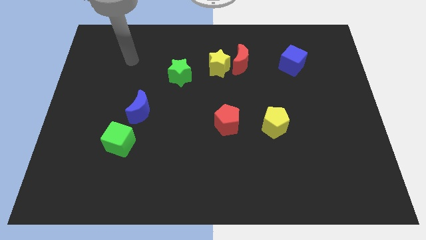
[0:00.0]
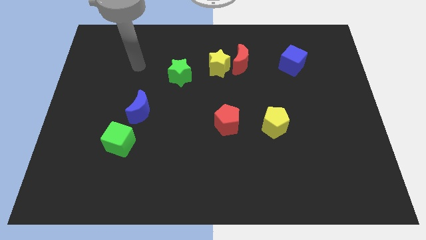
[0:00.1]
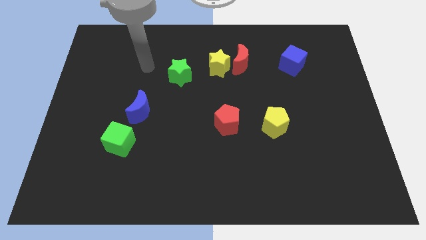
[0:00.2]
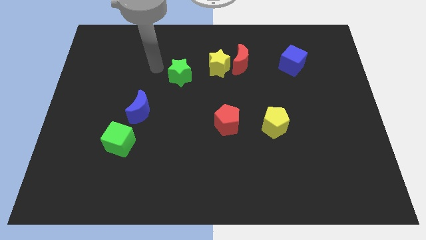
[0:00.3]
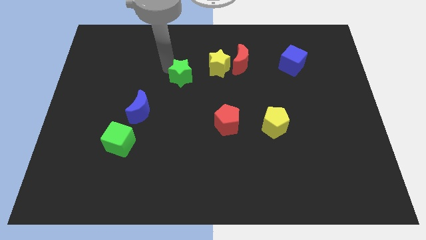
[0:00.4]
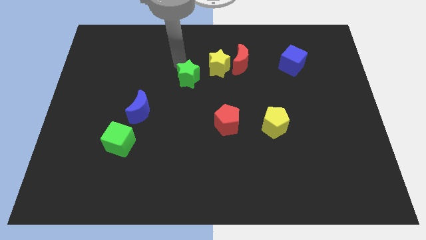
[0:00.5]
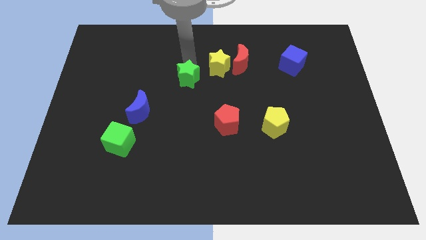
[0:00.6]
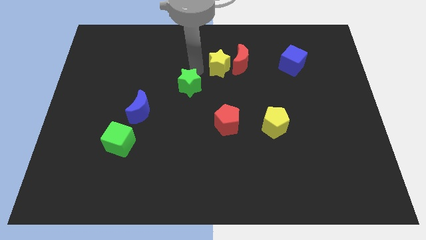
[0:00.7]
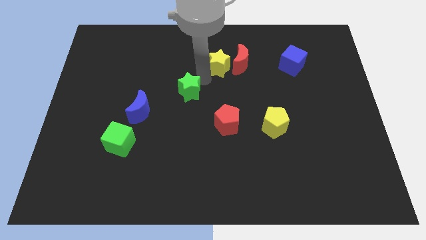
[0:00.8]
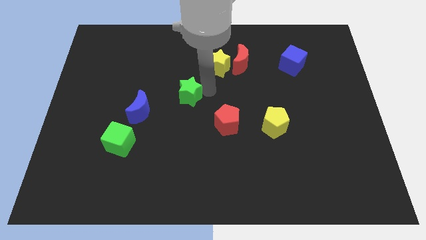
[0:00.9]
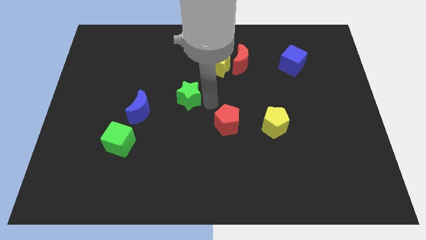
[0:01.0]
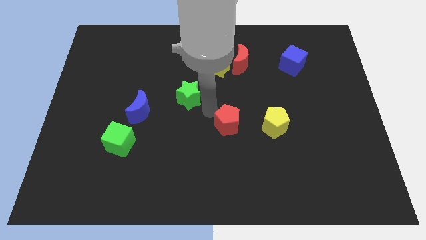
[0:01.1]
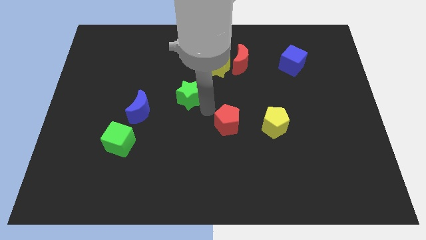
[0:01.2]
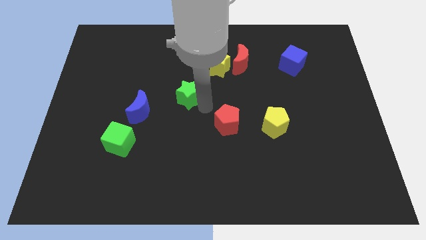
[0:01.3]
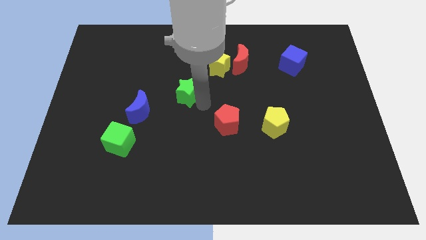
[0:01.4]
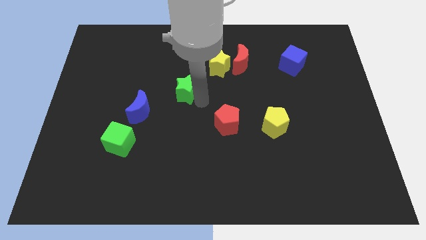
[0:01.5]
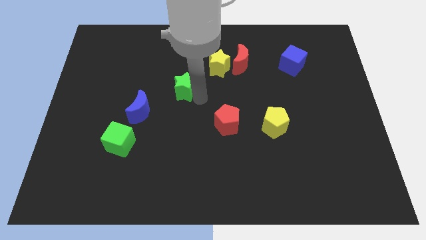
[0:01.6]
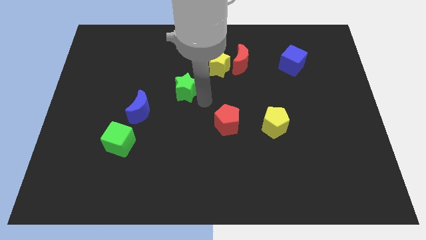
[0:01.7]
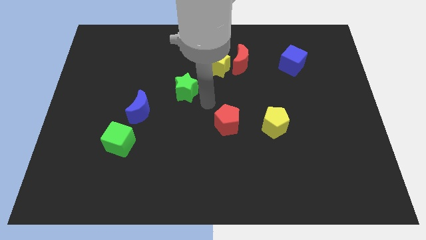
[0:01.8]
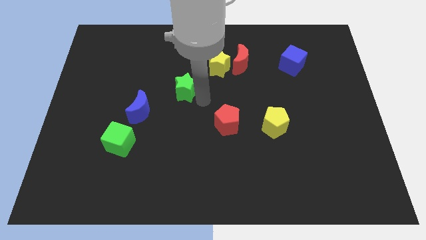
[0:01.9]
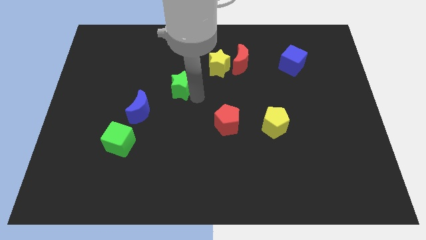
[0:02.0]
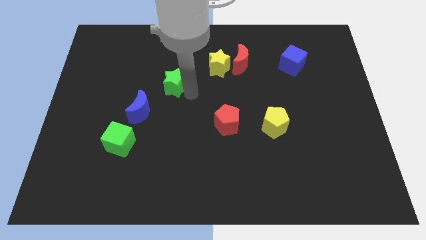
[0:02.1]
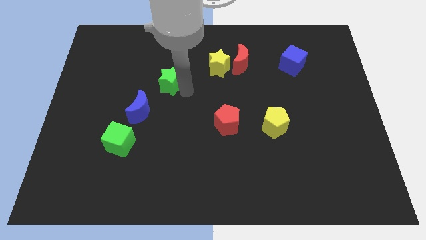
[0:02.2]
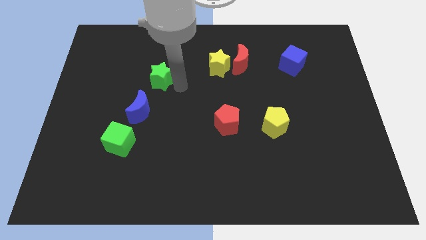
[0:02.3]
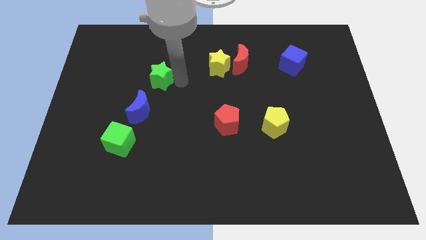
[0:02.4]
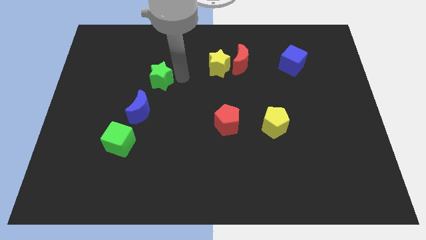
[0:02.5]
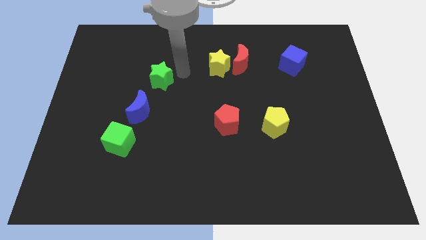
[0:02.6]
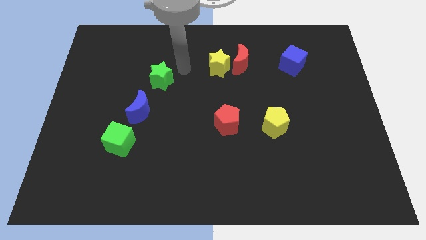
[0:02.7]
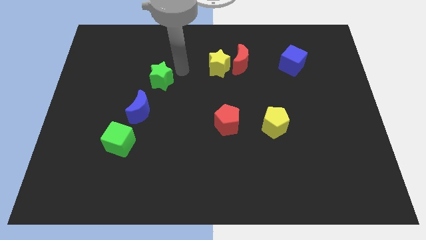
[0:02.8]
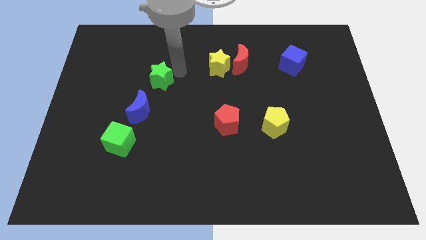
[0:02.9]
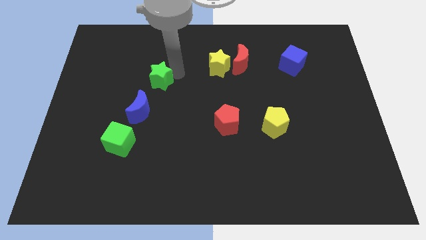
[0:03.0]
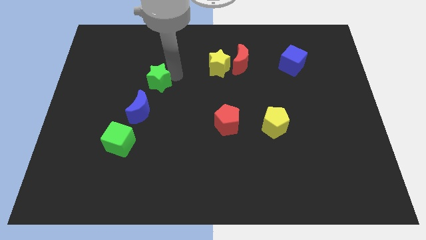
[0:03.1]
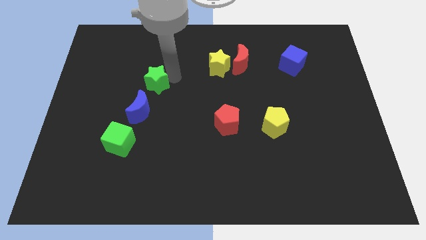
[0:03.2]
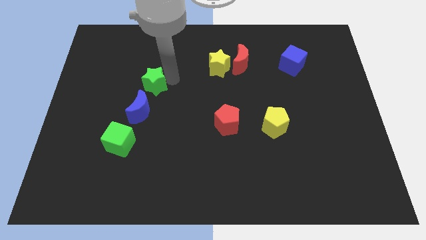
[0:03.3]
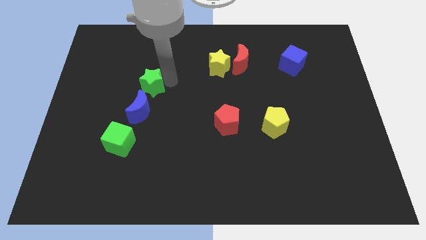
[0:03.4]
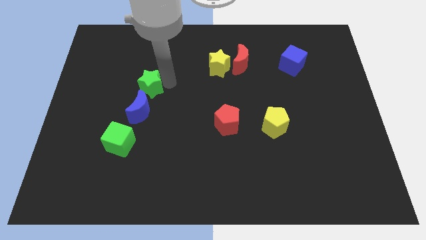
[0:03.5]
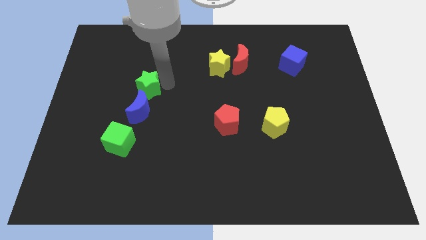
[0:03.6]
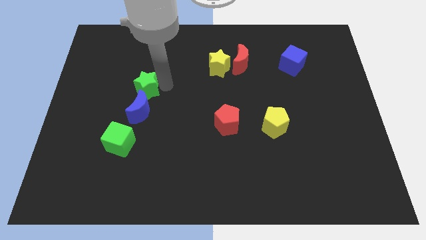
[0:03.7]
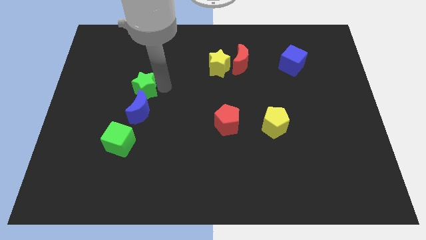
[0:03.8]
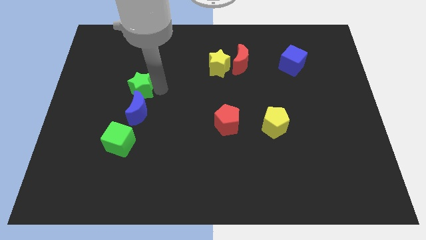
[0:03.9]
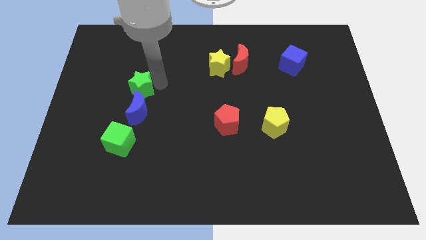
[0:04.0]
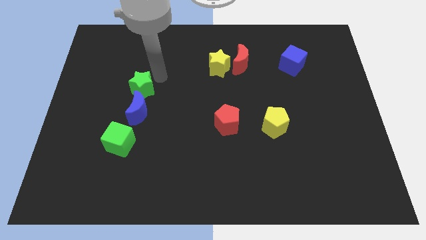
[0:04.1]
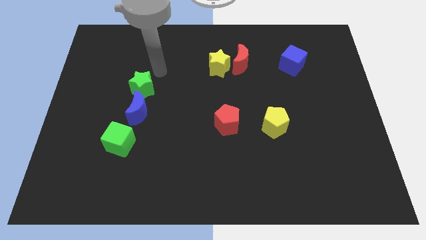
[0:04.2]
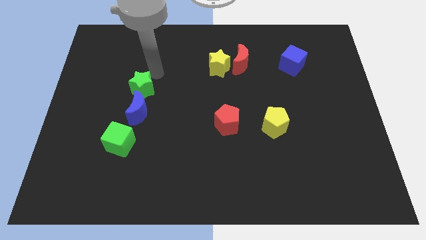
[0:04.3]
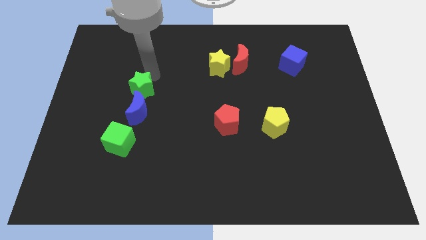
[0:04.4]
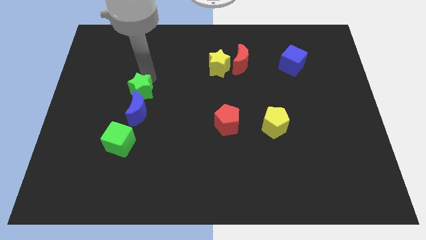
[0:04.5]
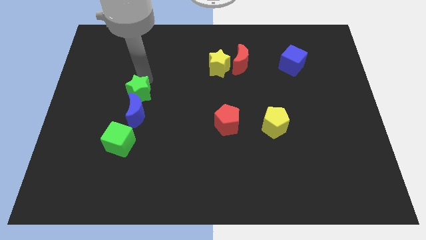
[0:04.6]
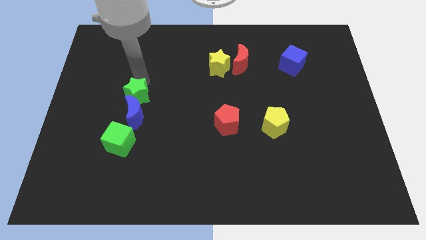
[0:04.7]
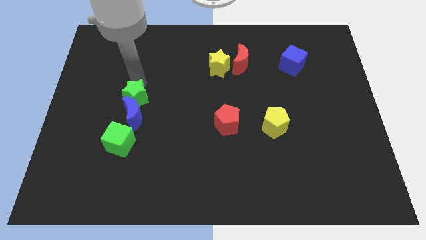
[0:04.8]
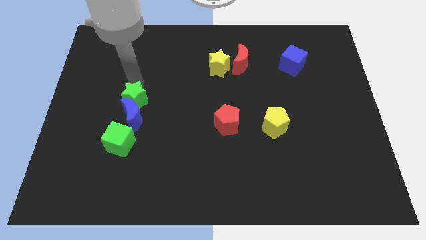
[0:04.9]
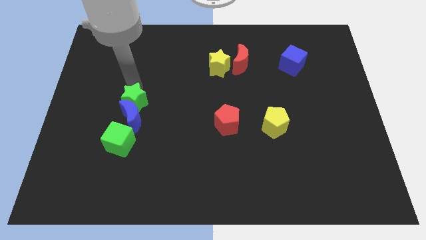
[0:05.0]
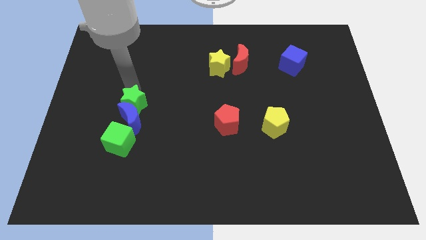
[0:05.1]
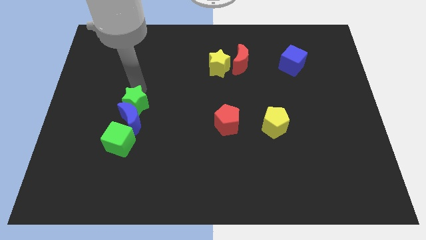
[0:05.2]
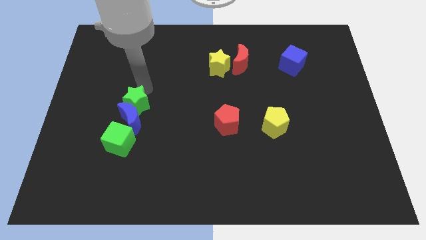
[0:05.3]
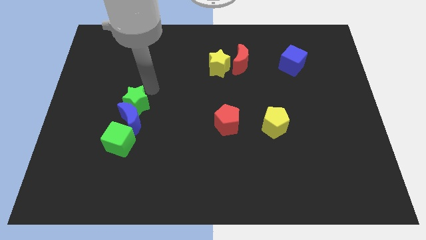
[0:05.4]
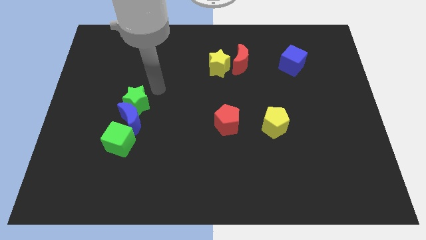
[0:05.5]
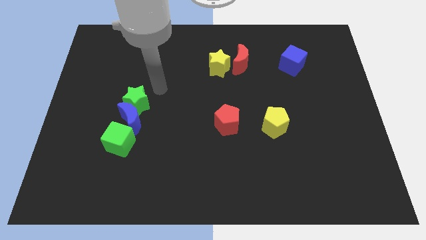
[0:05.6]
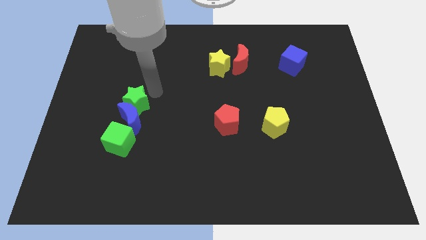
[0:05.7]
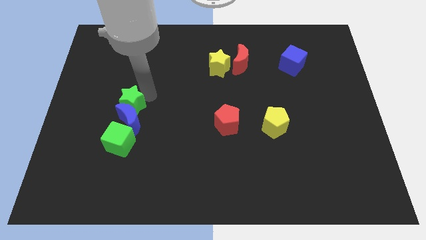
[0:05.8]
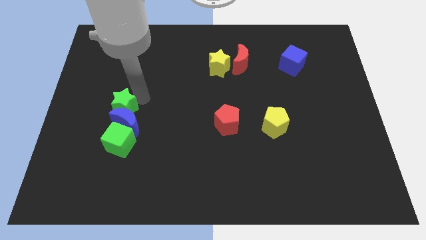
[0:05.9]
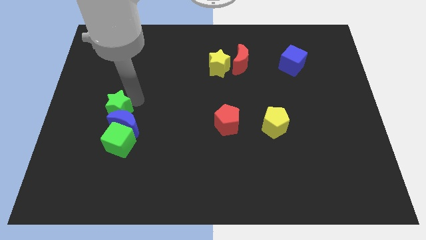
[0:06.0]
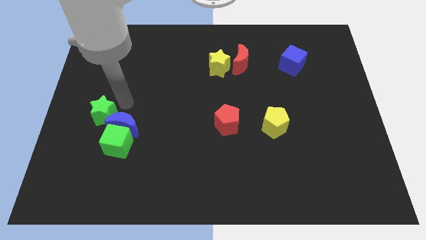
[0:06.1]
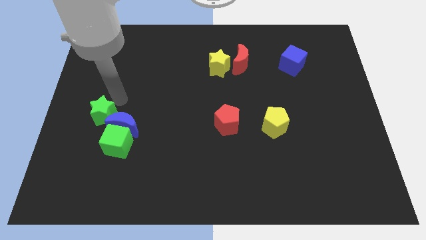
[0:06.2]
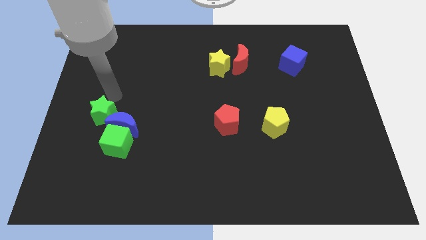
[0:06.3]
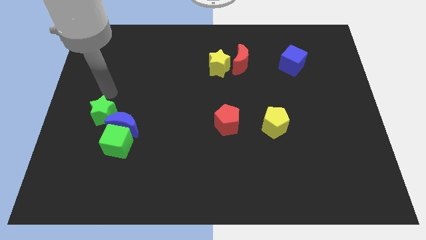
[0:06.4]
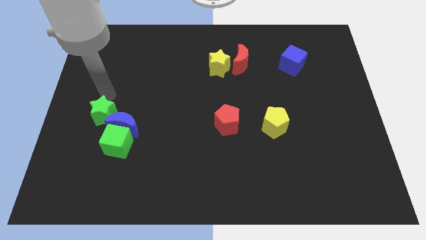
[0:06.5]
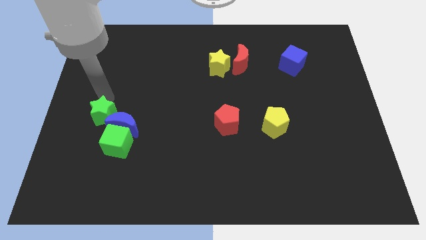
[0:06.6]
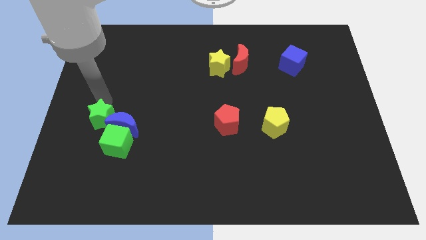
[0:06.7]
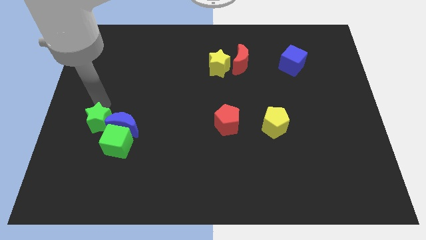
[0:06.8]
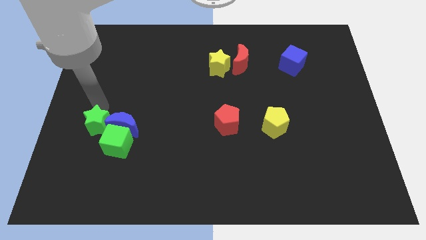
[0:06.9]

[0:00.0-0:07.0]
put the green star diagonally down and to the left of the blue moon
